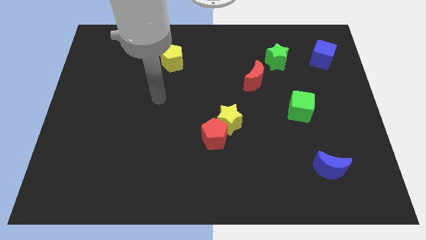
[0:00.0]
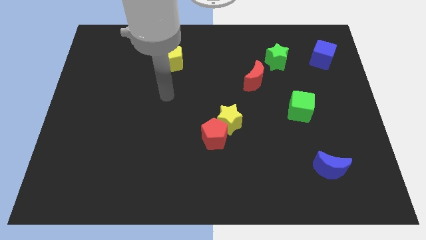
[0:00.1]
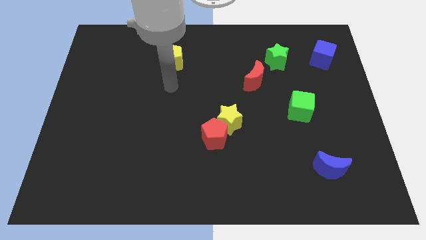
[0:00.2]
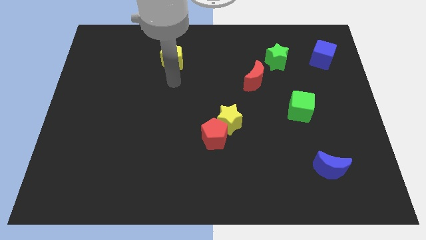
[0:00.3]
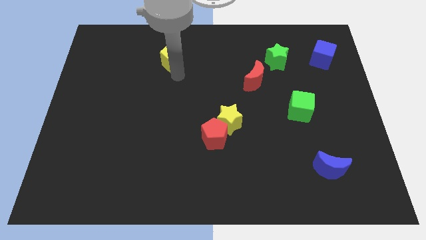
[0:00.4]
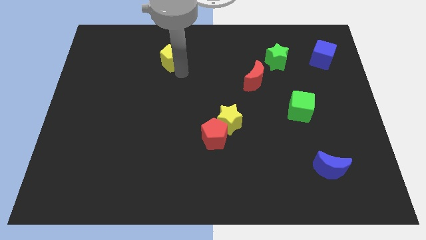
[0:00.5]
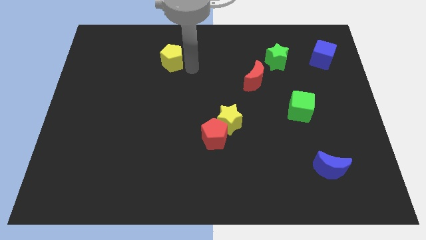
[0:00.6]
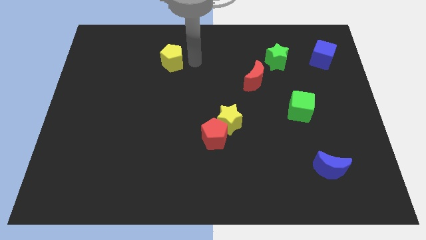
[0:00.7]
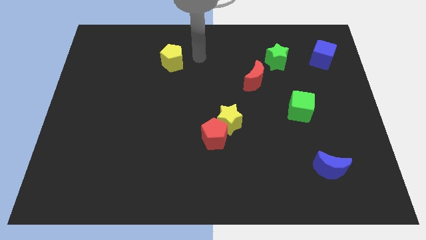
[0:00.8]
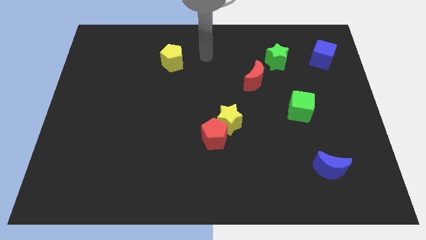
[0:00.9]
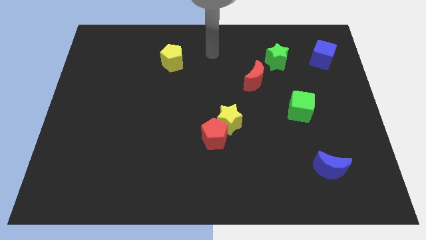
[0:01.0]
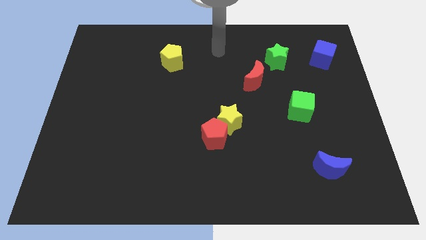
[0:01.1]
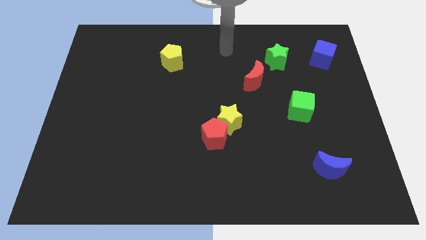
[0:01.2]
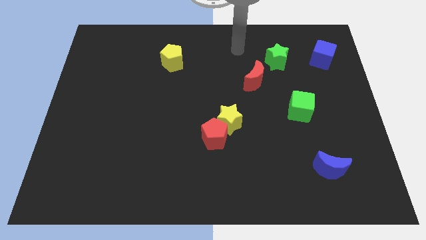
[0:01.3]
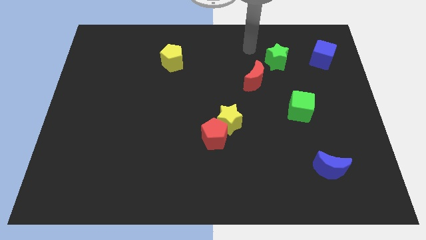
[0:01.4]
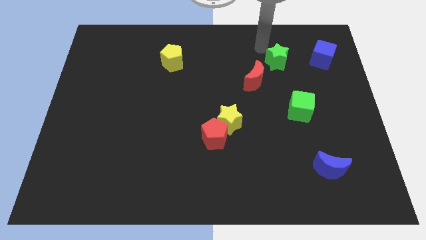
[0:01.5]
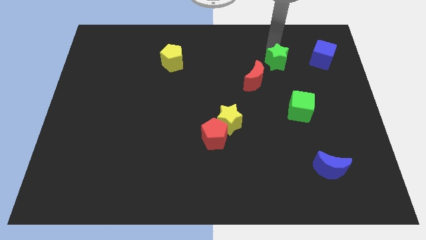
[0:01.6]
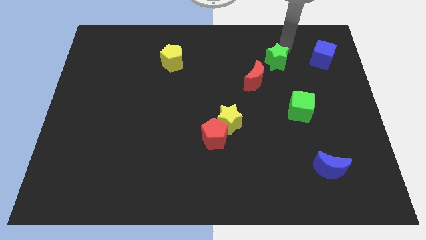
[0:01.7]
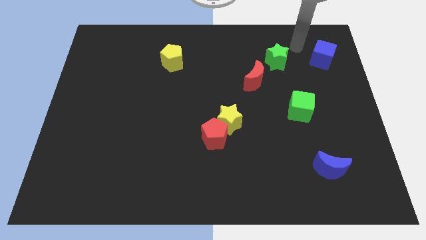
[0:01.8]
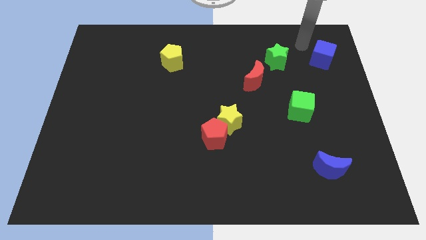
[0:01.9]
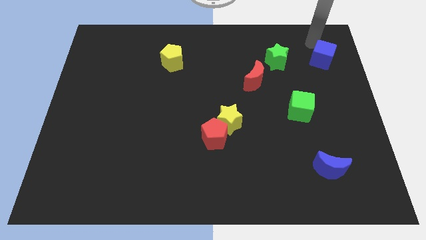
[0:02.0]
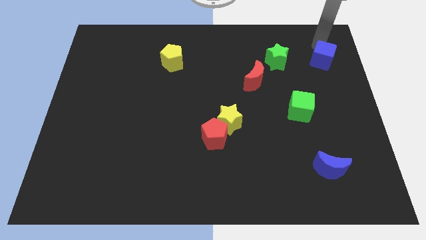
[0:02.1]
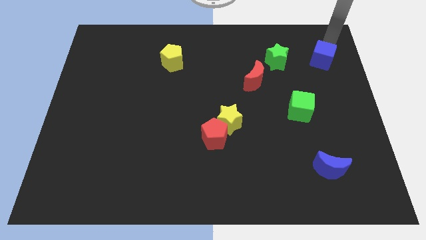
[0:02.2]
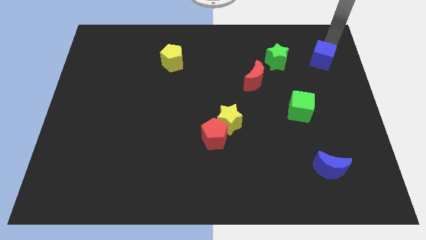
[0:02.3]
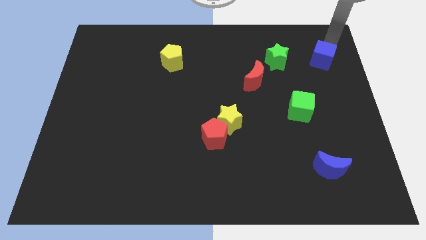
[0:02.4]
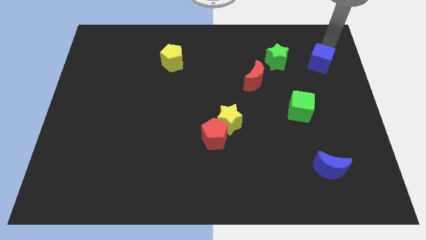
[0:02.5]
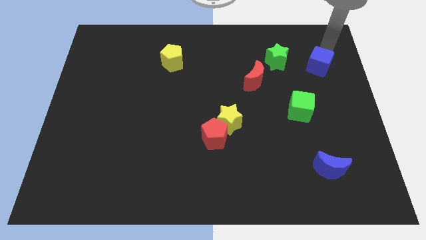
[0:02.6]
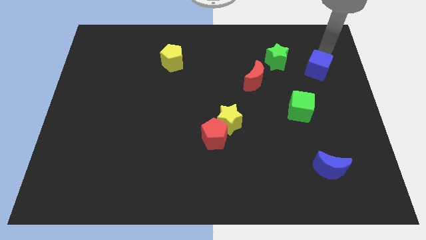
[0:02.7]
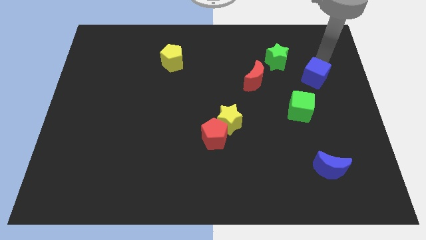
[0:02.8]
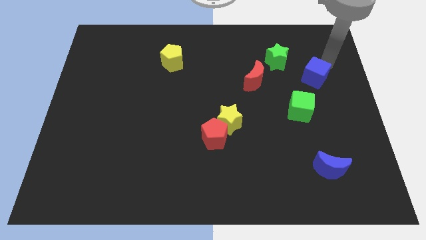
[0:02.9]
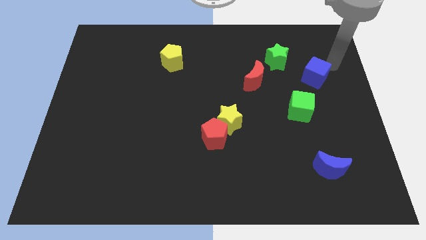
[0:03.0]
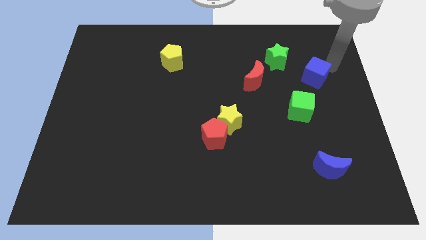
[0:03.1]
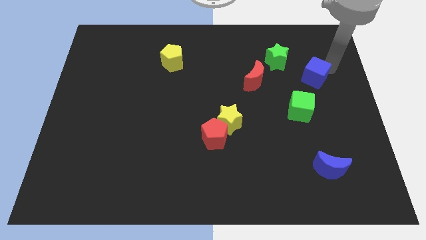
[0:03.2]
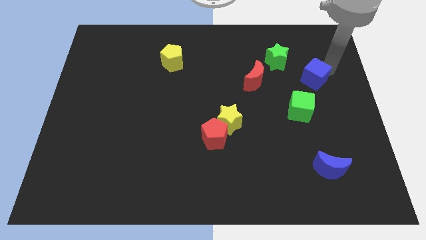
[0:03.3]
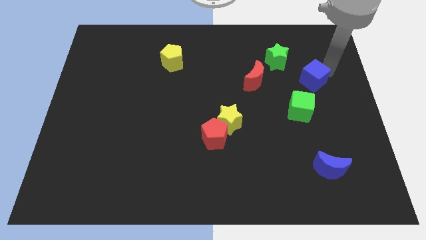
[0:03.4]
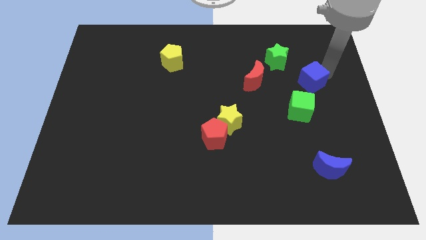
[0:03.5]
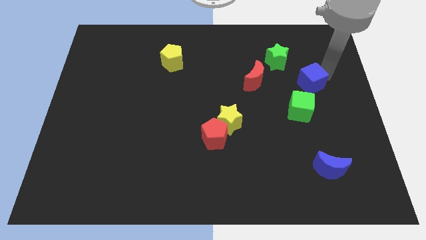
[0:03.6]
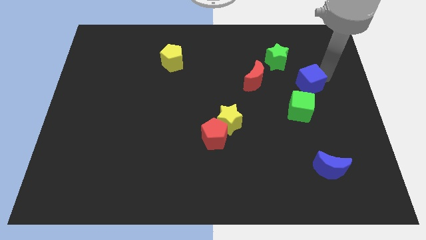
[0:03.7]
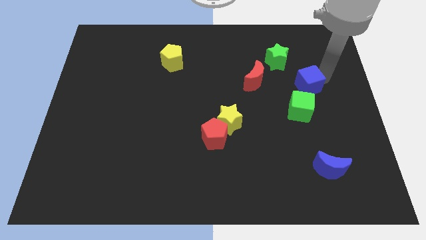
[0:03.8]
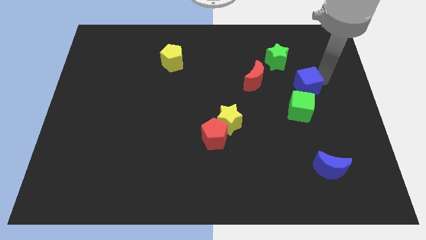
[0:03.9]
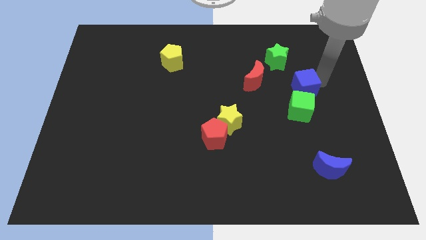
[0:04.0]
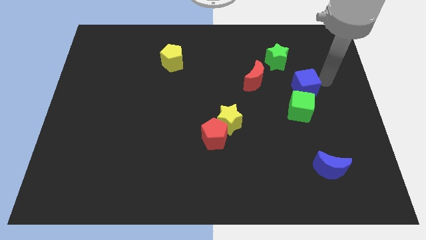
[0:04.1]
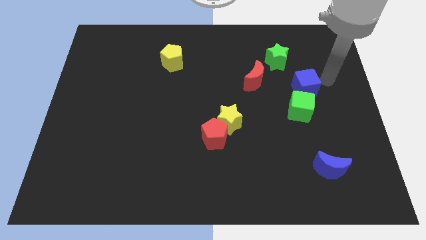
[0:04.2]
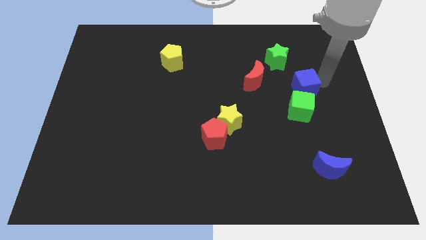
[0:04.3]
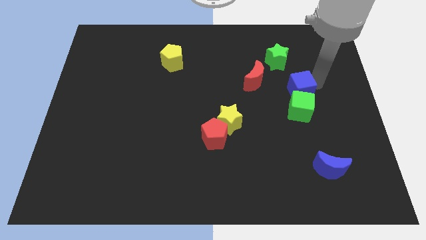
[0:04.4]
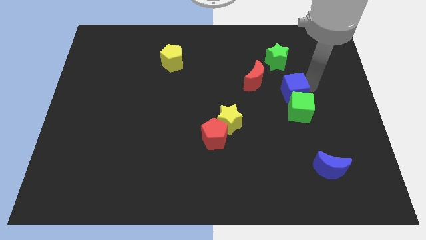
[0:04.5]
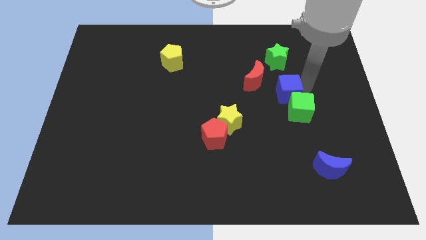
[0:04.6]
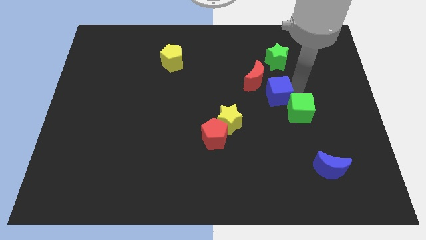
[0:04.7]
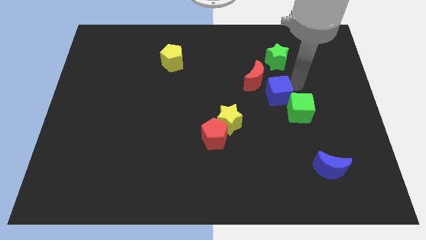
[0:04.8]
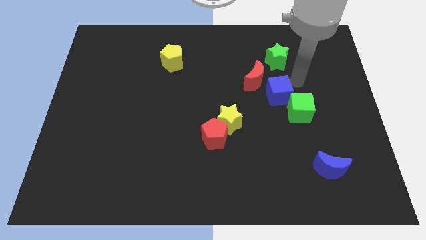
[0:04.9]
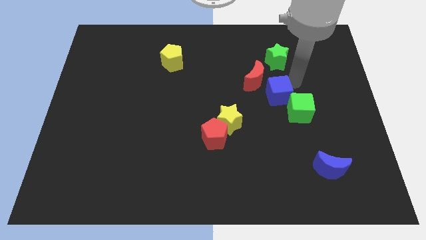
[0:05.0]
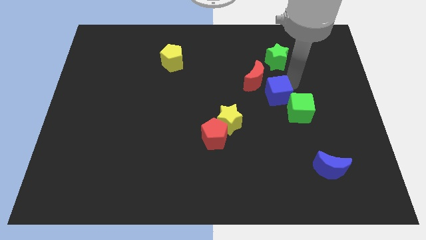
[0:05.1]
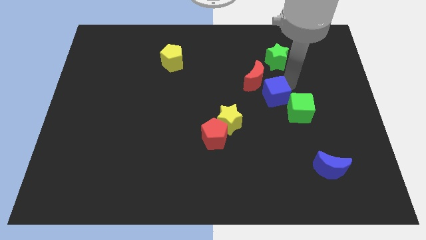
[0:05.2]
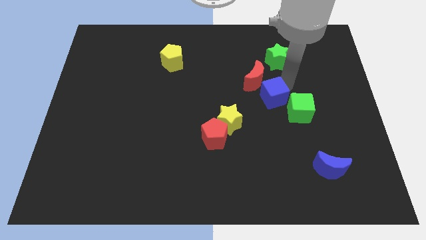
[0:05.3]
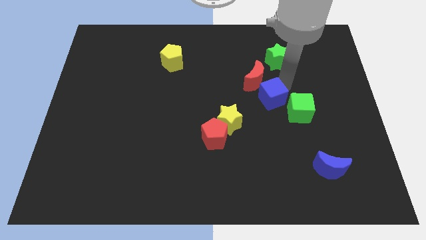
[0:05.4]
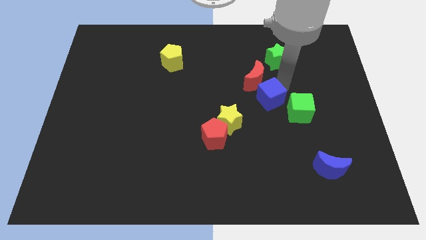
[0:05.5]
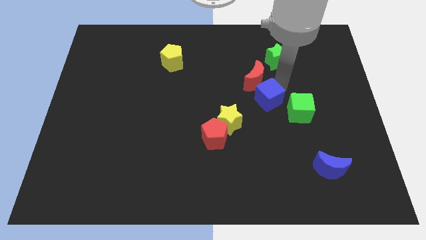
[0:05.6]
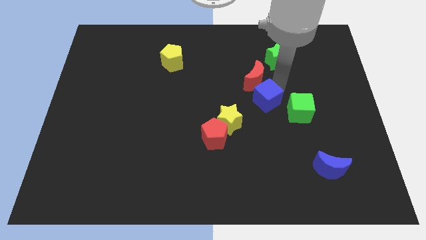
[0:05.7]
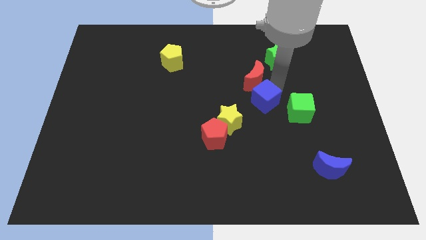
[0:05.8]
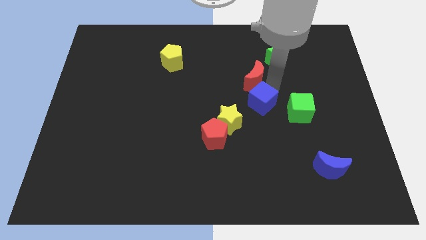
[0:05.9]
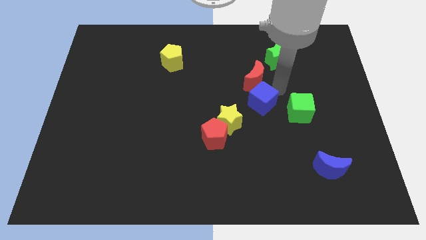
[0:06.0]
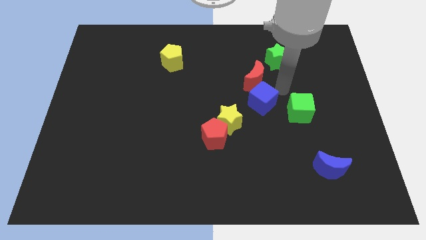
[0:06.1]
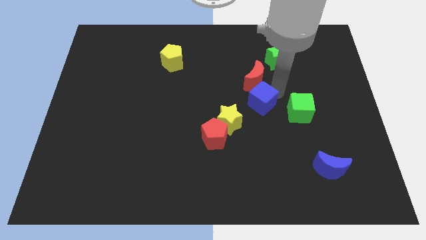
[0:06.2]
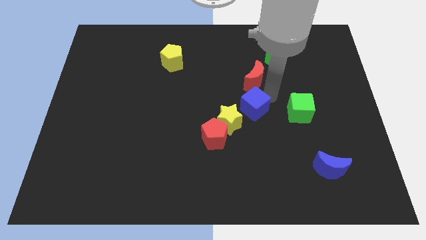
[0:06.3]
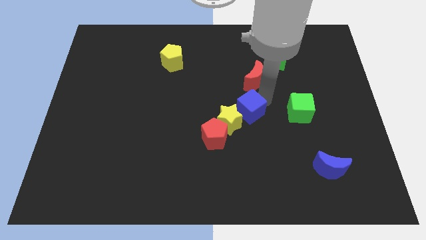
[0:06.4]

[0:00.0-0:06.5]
put the blue cube towards the yellow star

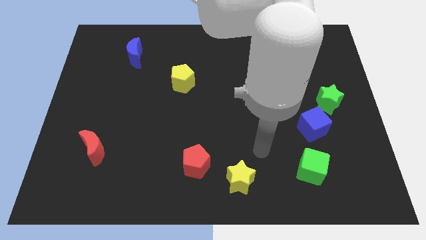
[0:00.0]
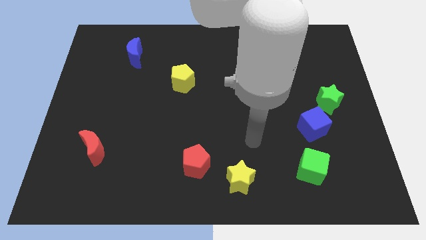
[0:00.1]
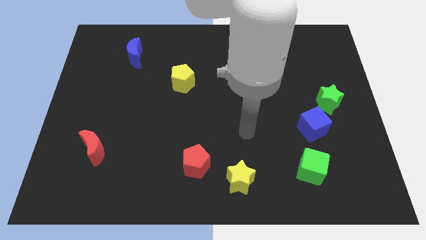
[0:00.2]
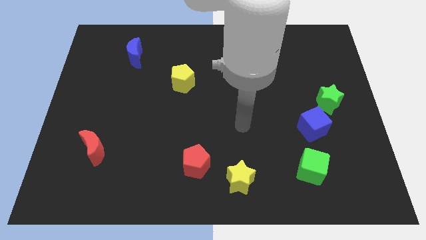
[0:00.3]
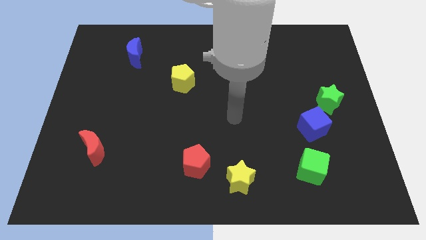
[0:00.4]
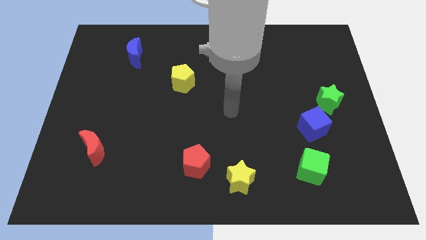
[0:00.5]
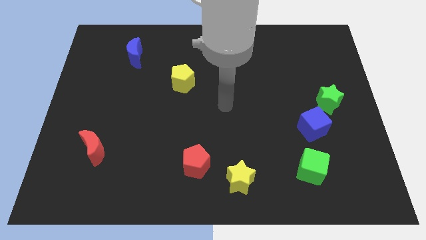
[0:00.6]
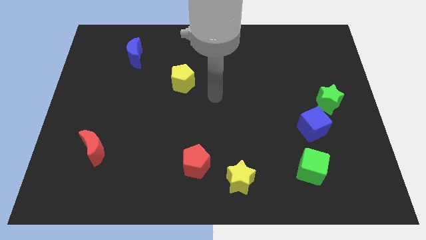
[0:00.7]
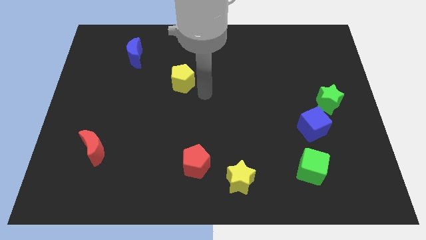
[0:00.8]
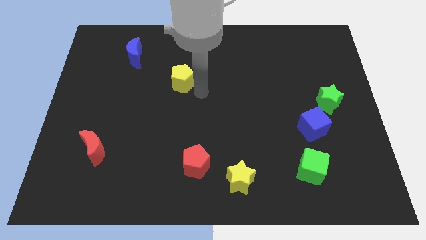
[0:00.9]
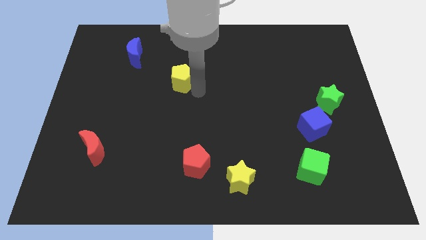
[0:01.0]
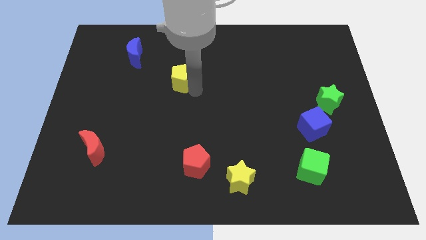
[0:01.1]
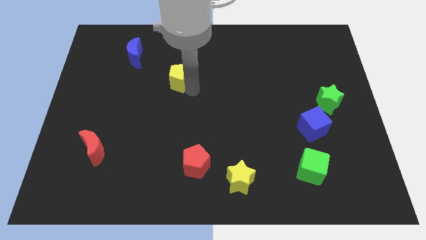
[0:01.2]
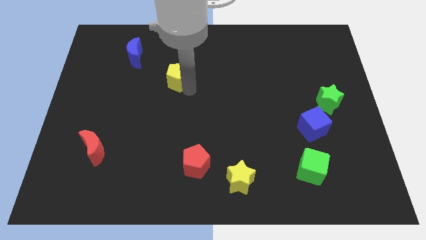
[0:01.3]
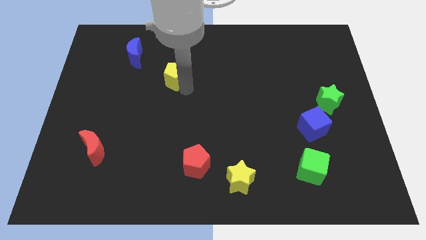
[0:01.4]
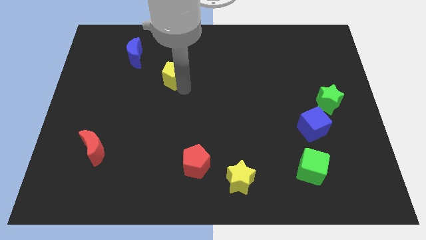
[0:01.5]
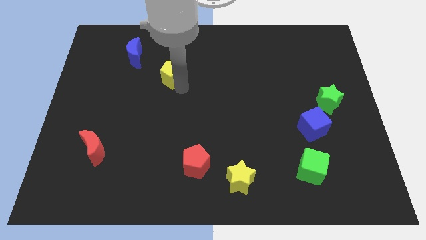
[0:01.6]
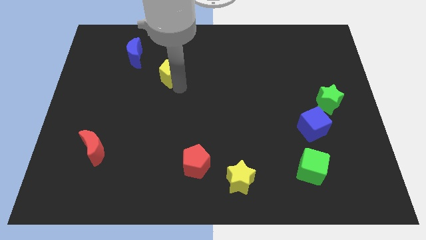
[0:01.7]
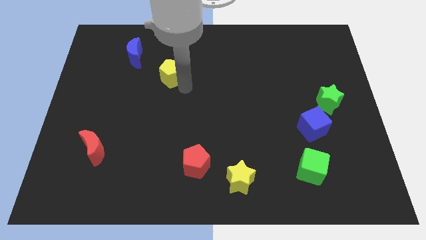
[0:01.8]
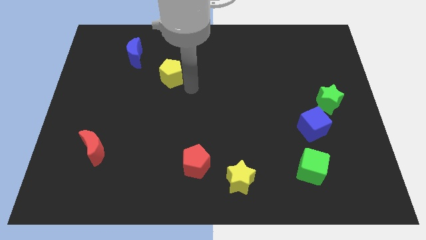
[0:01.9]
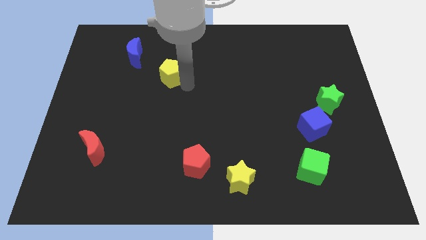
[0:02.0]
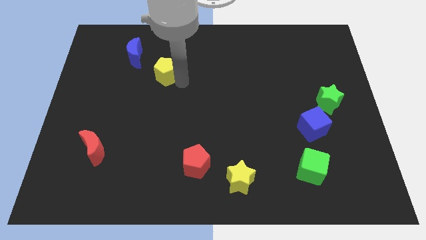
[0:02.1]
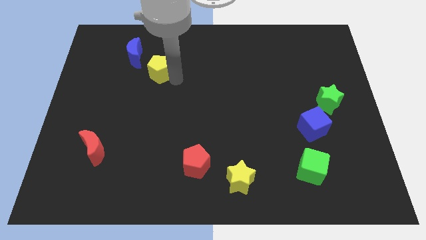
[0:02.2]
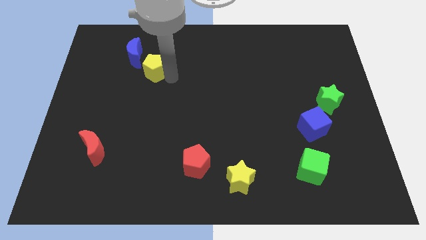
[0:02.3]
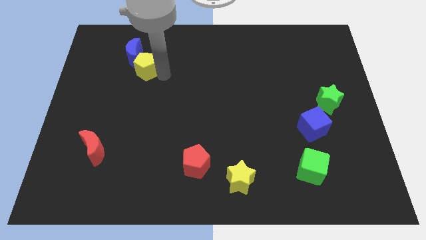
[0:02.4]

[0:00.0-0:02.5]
push the yellow pentagon close to the blue moon
